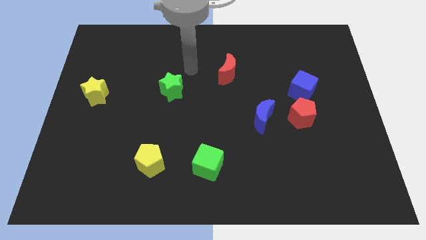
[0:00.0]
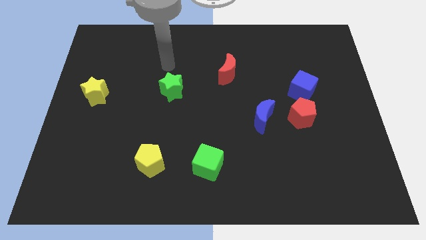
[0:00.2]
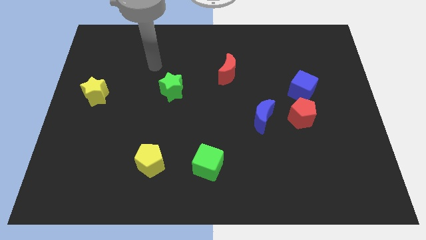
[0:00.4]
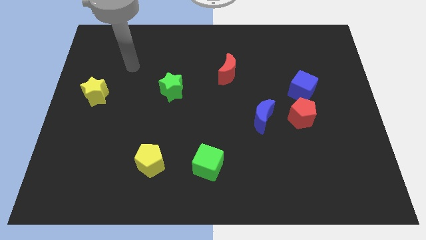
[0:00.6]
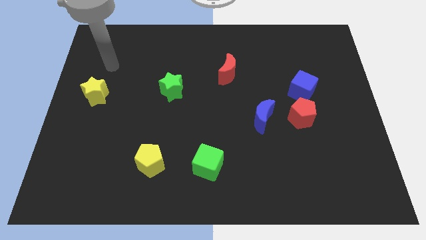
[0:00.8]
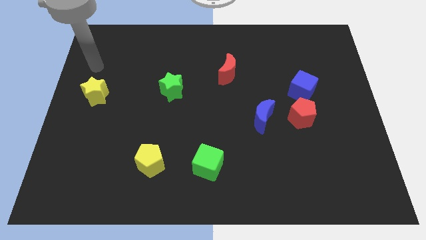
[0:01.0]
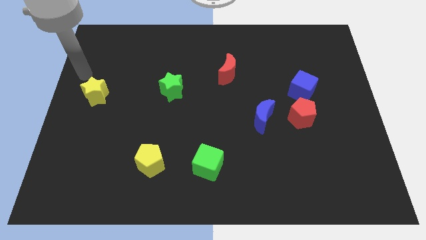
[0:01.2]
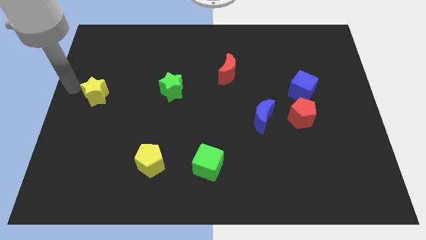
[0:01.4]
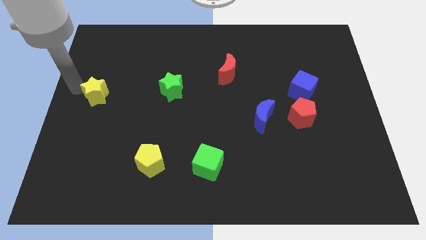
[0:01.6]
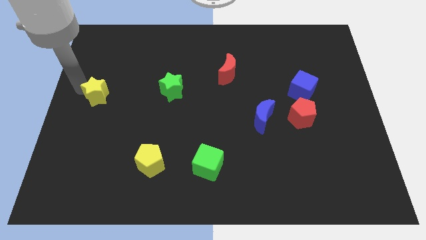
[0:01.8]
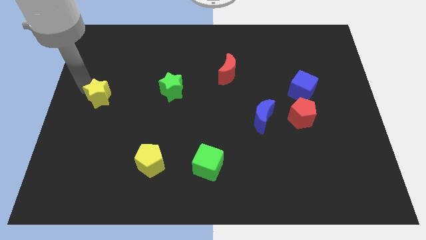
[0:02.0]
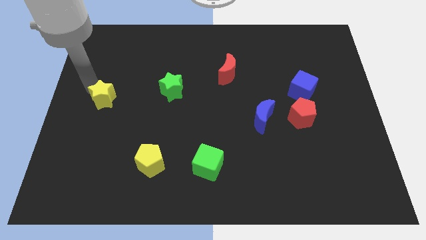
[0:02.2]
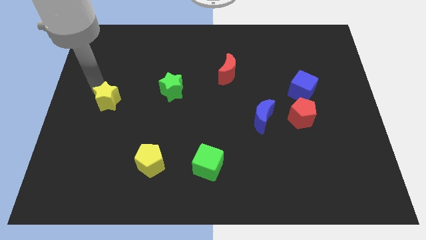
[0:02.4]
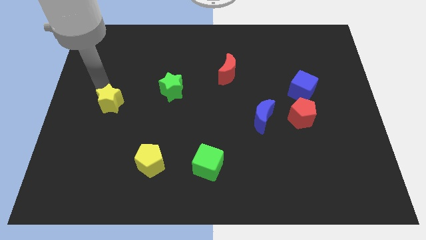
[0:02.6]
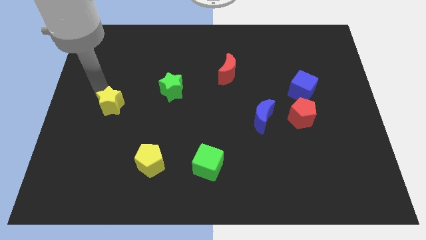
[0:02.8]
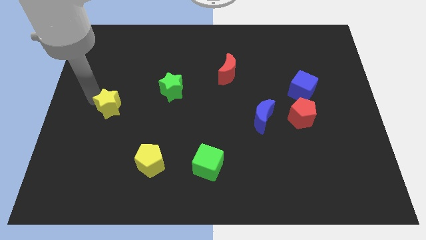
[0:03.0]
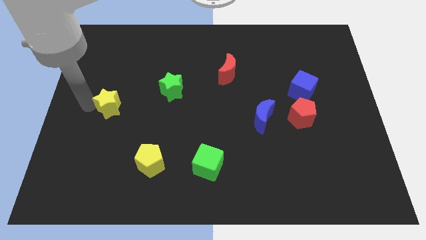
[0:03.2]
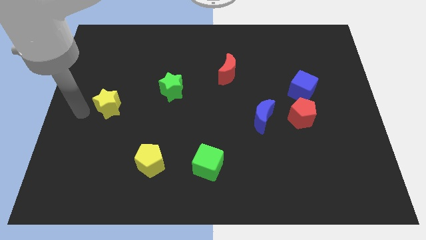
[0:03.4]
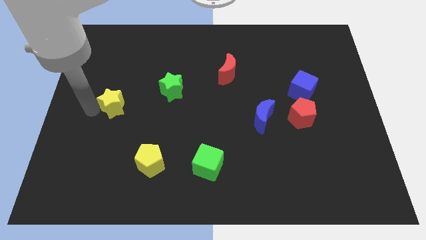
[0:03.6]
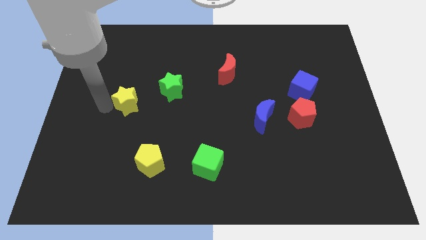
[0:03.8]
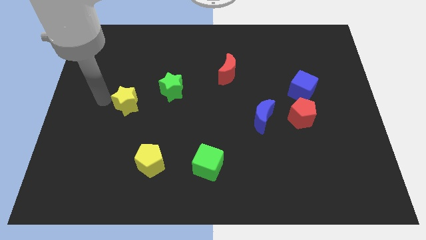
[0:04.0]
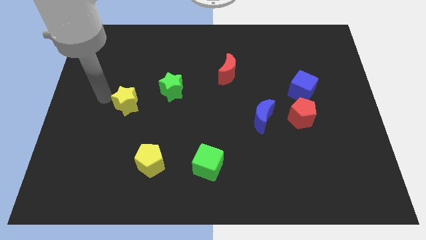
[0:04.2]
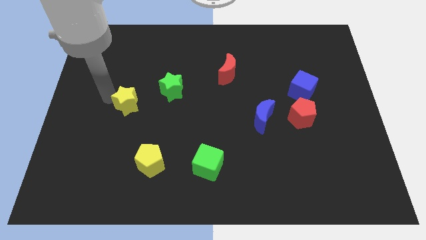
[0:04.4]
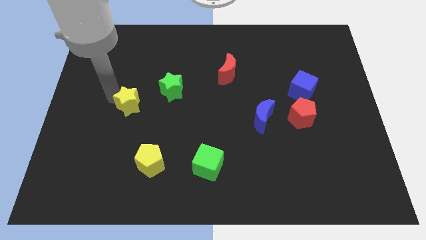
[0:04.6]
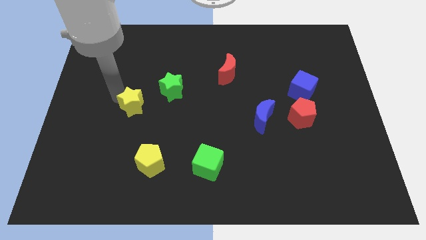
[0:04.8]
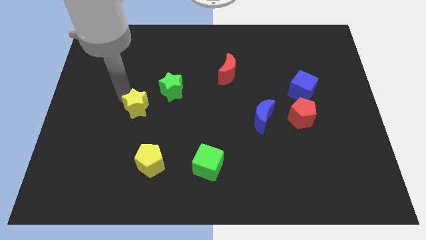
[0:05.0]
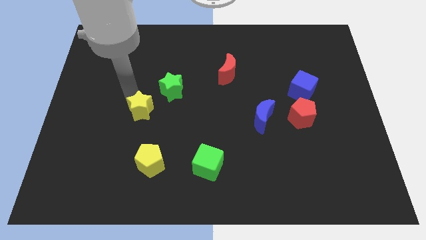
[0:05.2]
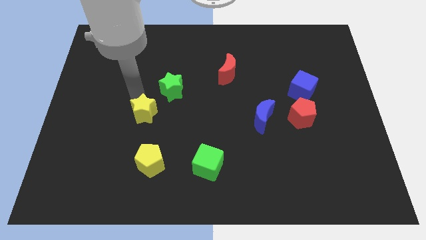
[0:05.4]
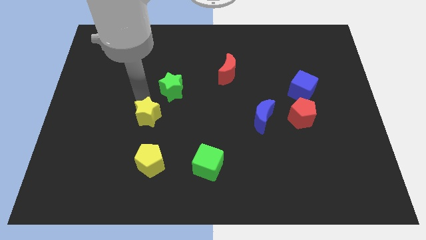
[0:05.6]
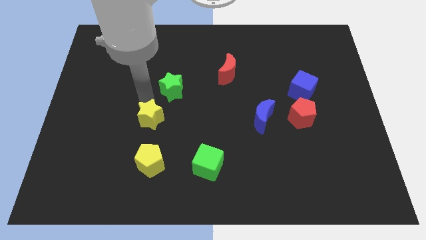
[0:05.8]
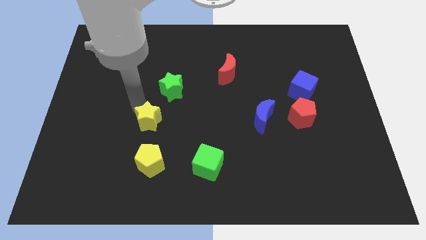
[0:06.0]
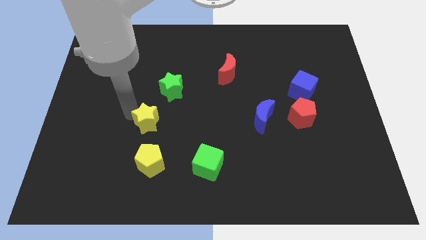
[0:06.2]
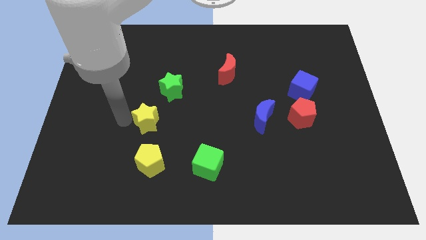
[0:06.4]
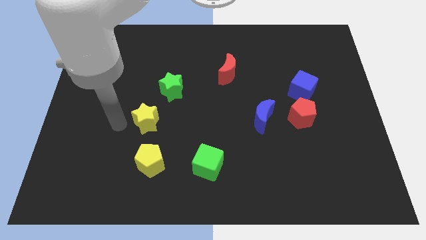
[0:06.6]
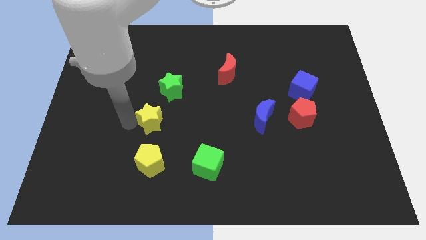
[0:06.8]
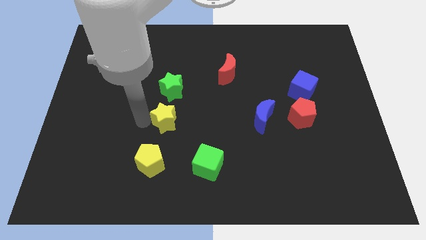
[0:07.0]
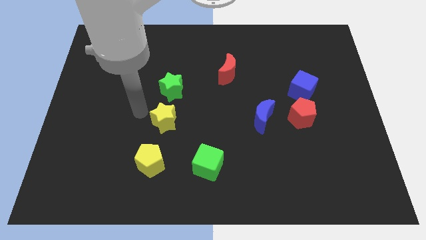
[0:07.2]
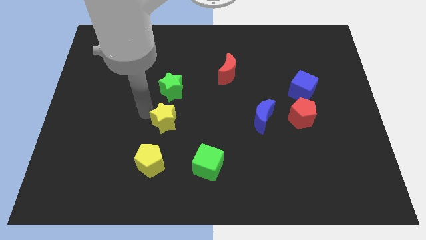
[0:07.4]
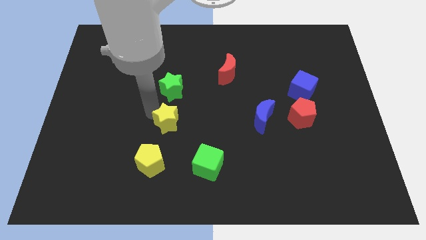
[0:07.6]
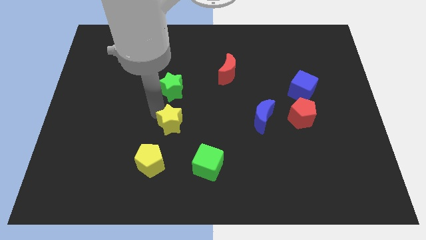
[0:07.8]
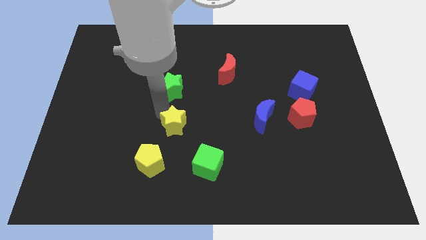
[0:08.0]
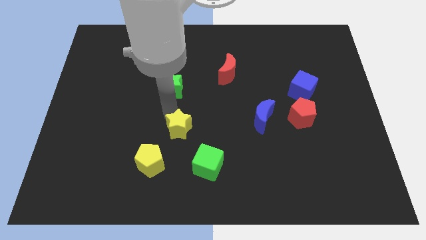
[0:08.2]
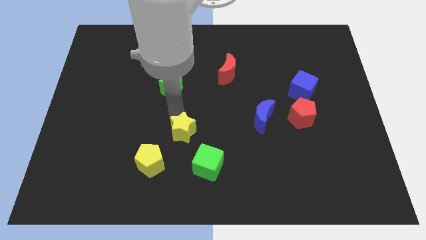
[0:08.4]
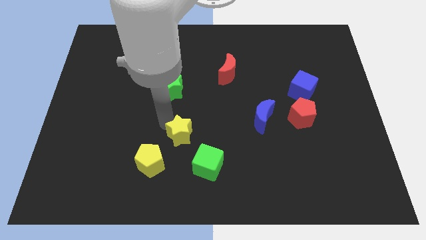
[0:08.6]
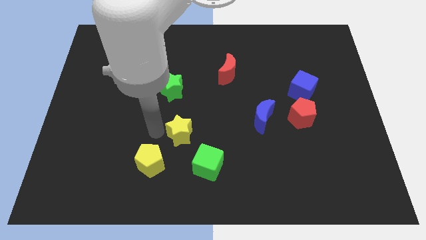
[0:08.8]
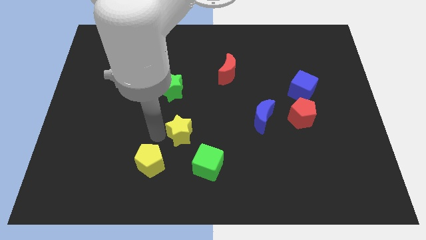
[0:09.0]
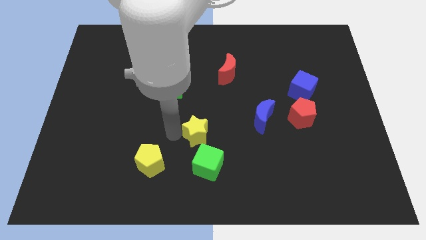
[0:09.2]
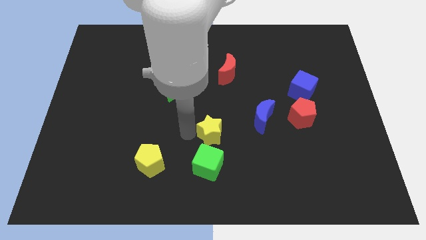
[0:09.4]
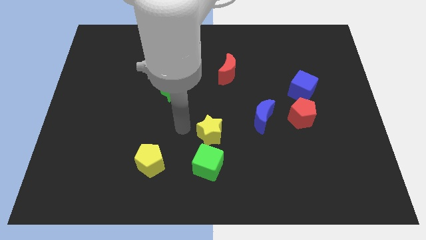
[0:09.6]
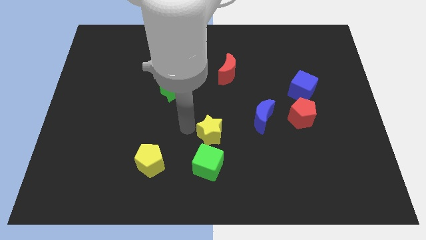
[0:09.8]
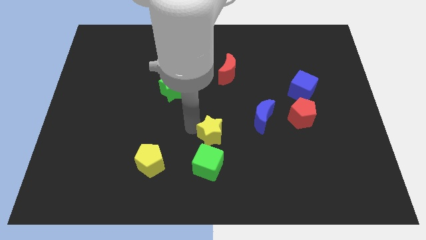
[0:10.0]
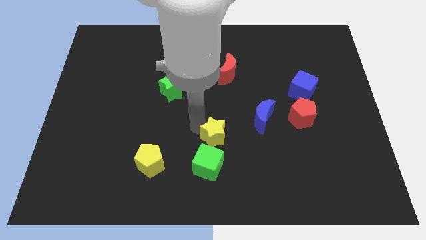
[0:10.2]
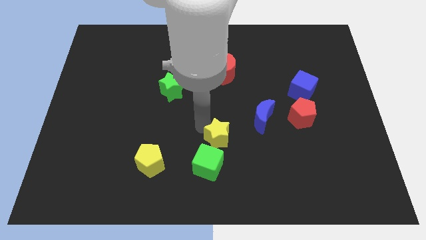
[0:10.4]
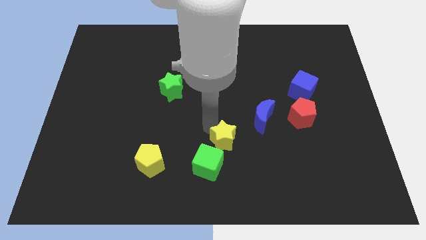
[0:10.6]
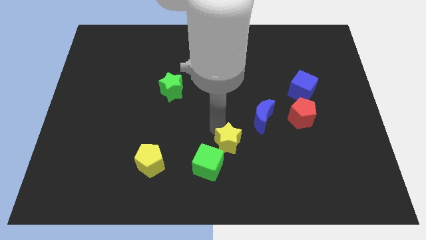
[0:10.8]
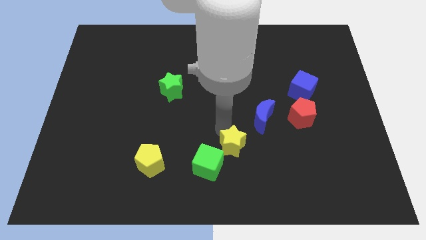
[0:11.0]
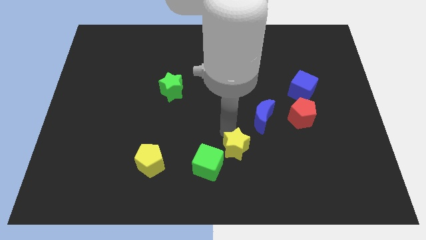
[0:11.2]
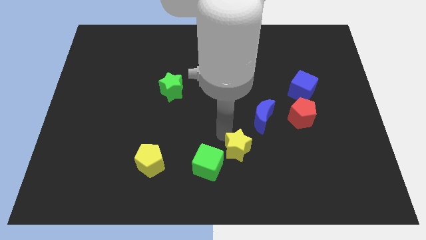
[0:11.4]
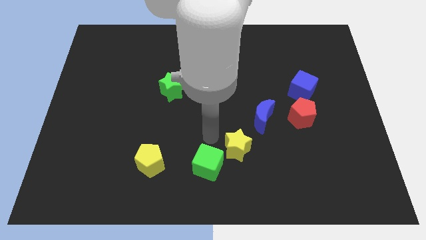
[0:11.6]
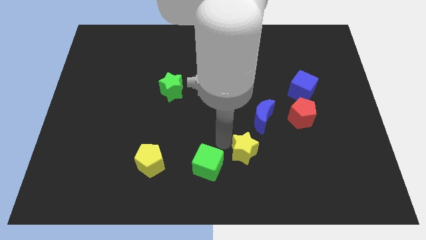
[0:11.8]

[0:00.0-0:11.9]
move the yellow star below the blue moon
